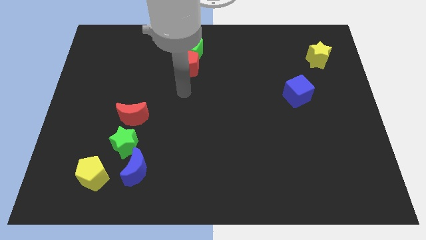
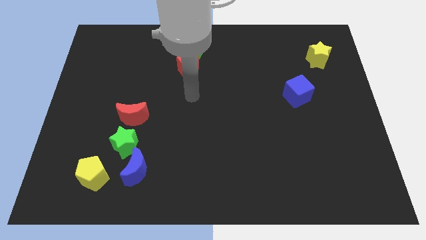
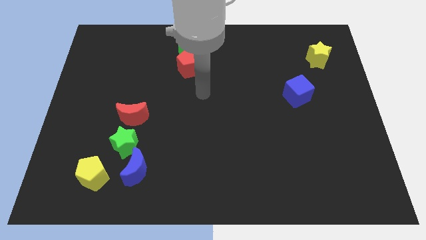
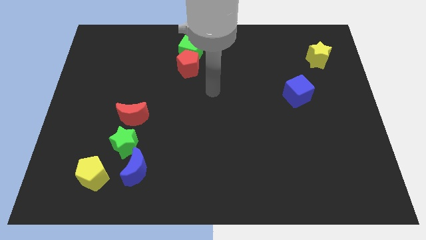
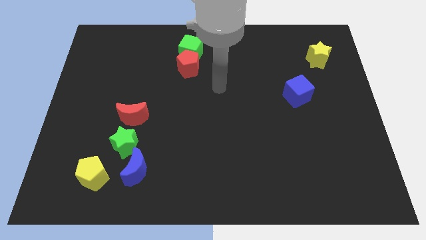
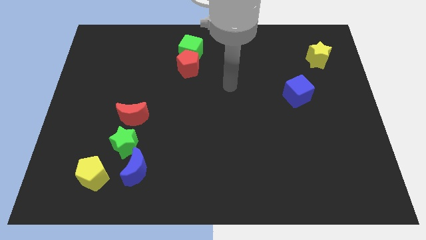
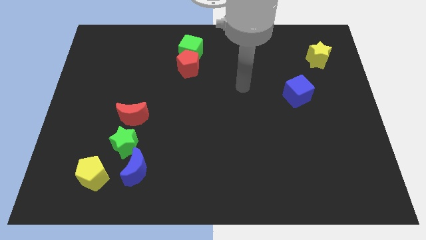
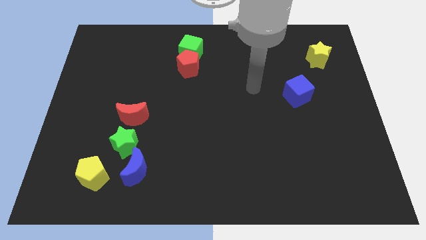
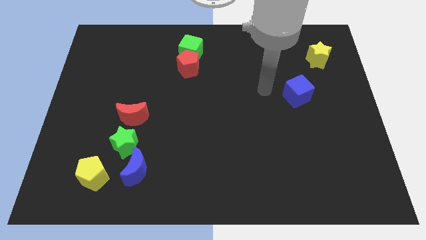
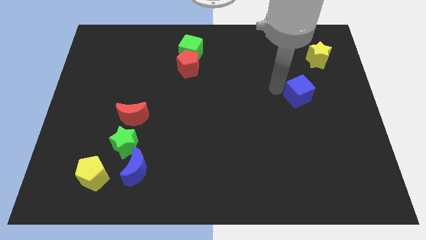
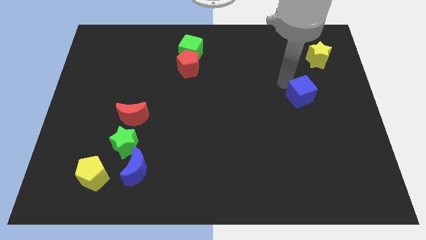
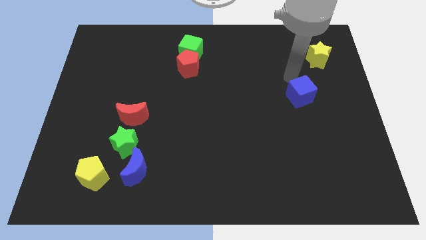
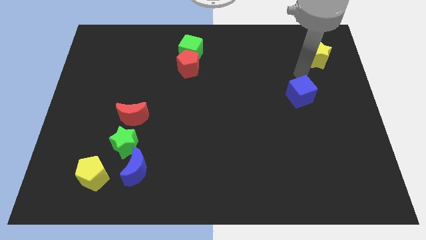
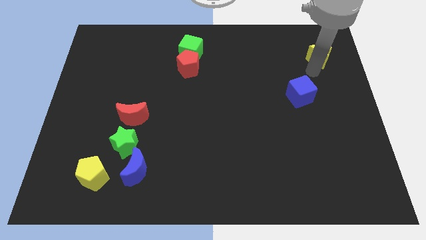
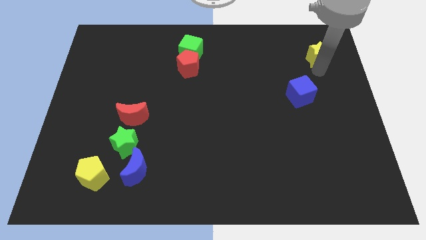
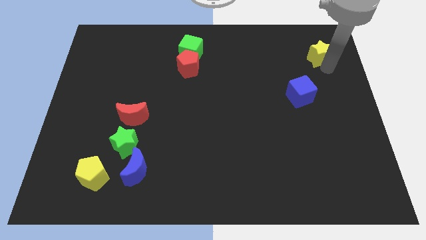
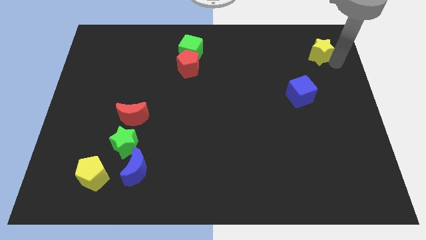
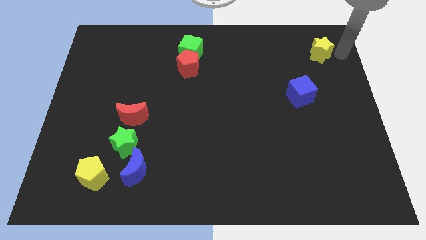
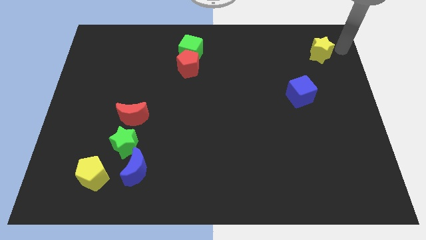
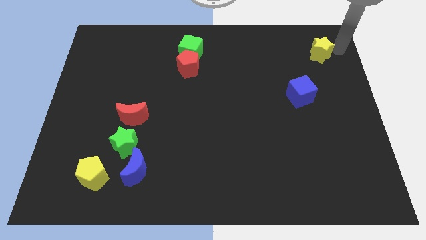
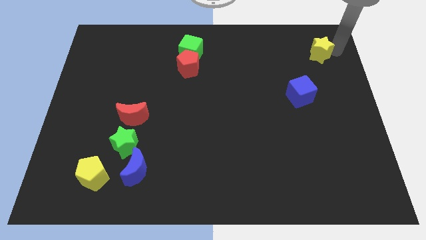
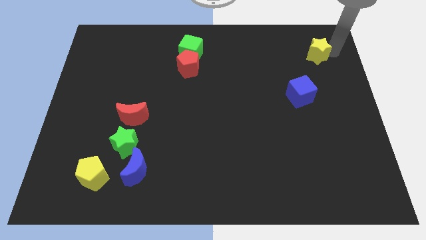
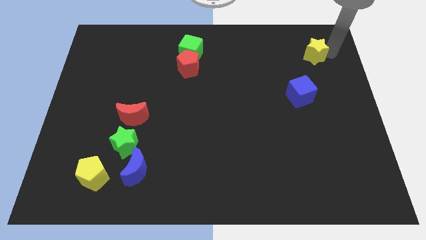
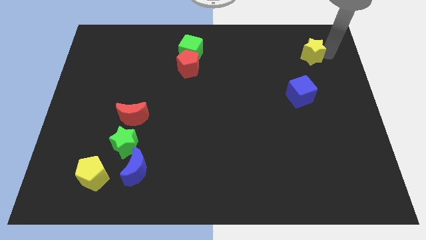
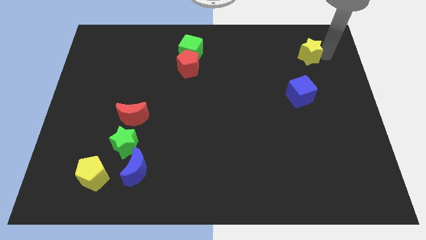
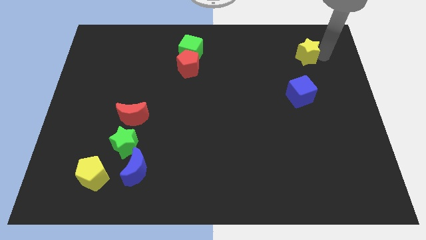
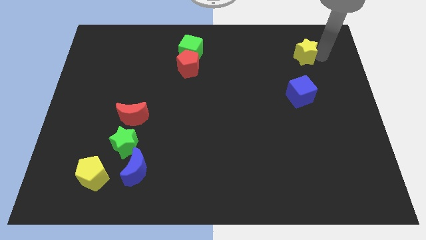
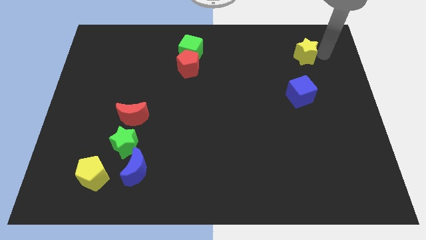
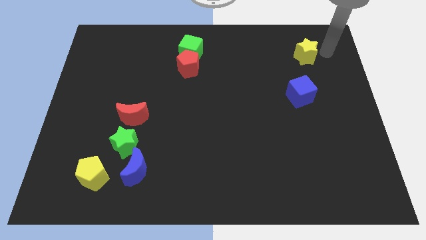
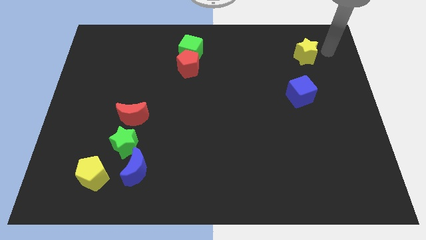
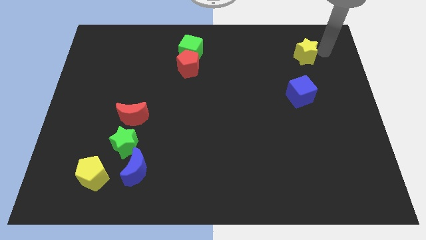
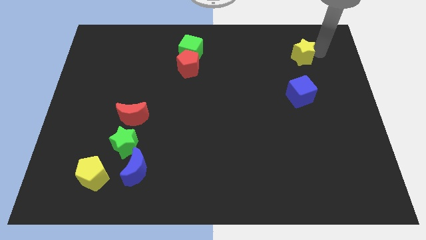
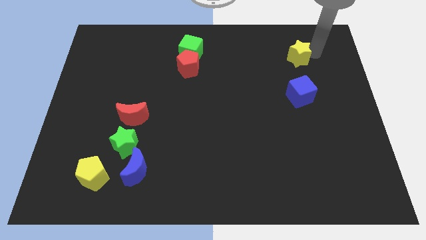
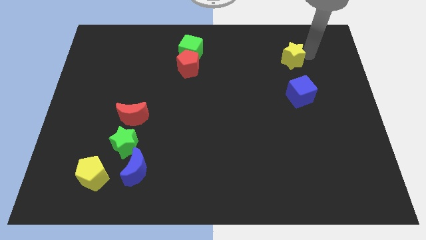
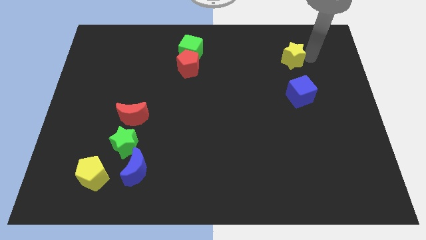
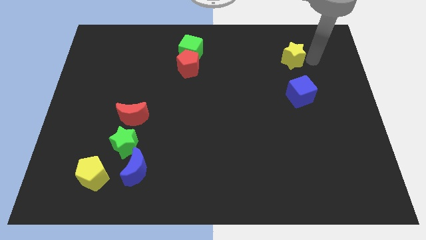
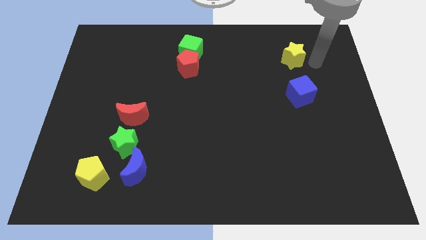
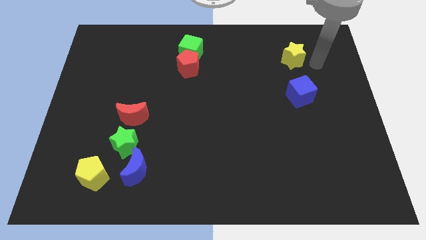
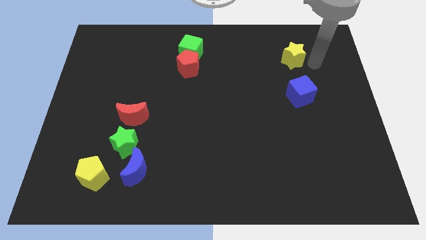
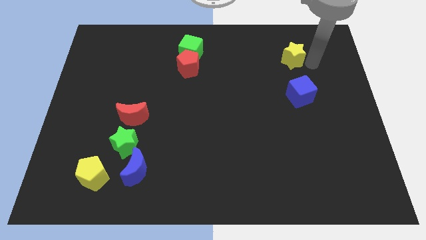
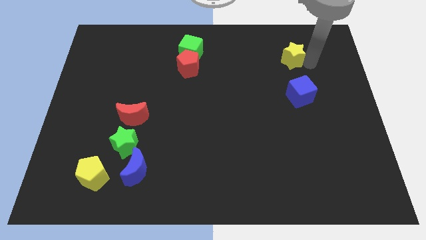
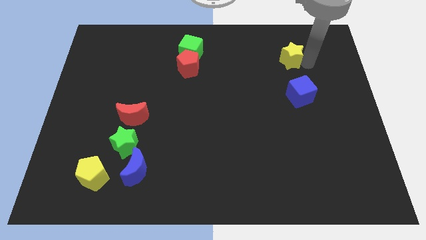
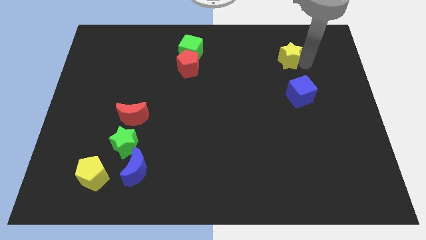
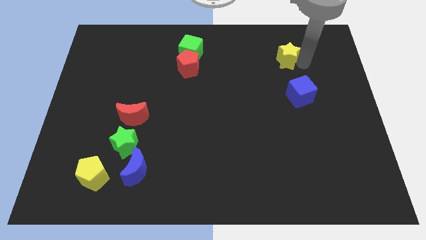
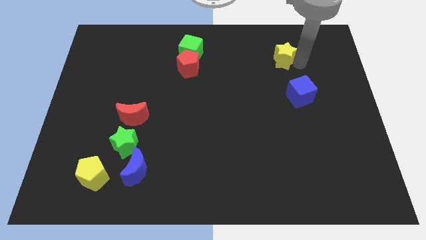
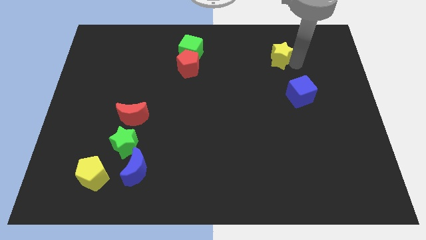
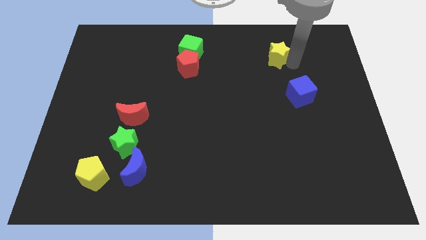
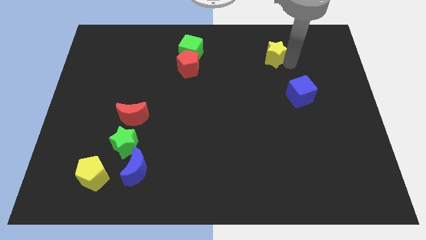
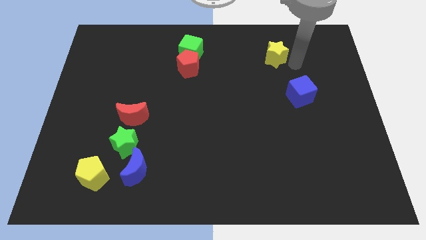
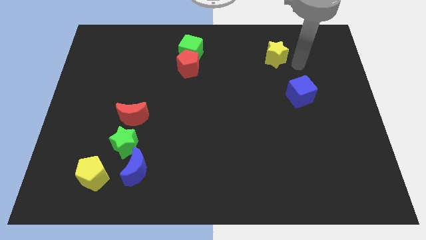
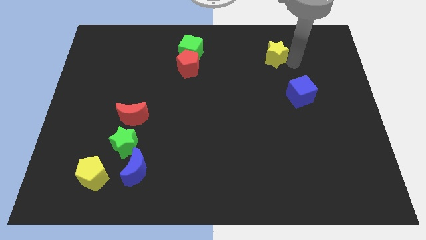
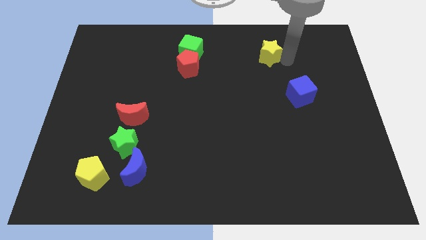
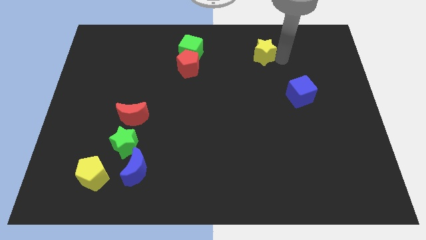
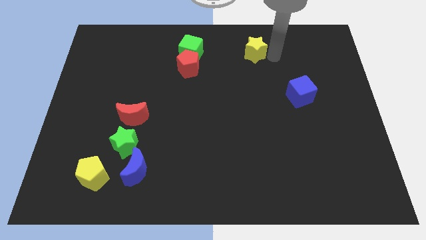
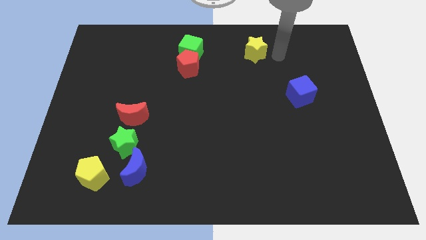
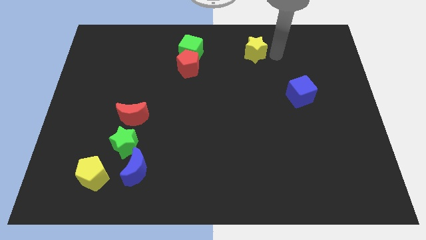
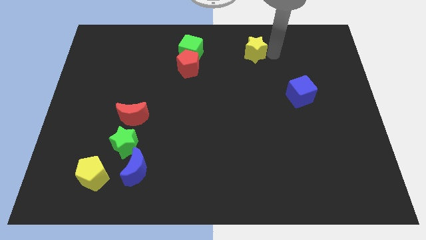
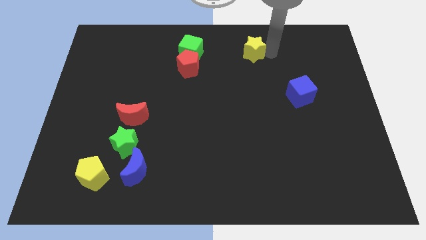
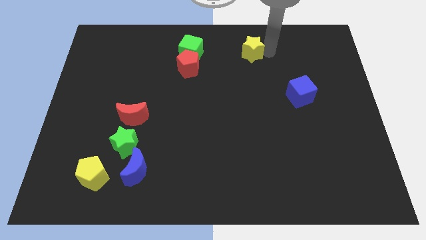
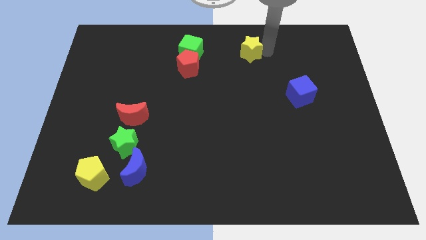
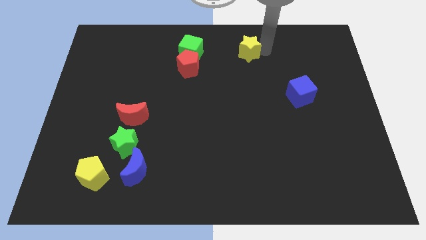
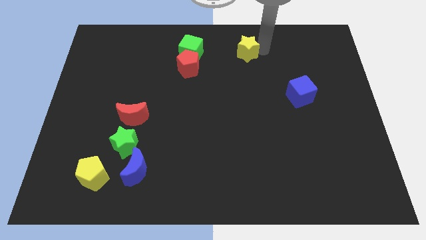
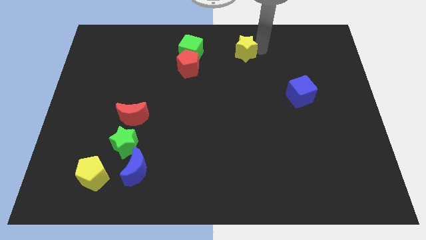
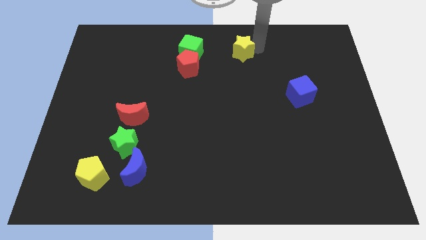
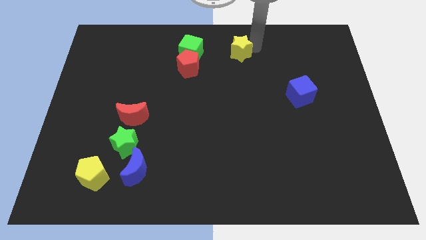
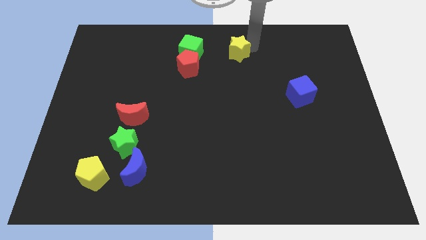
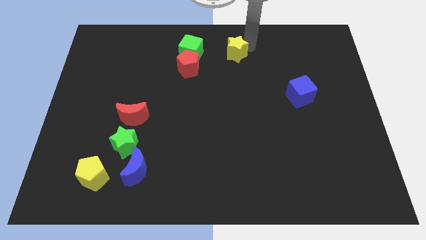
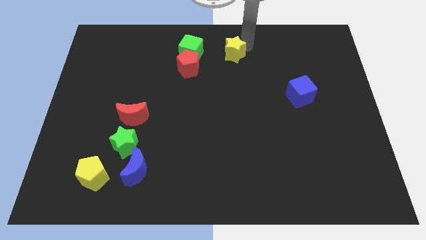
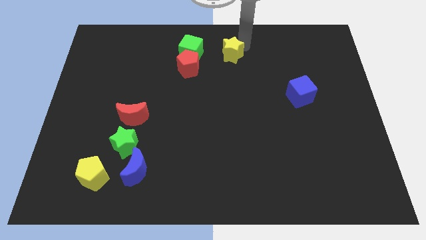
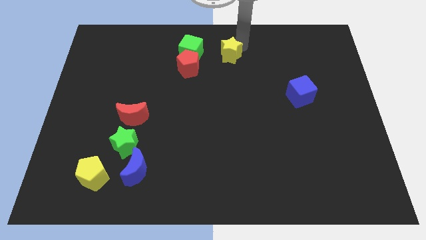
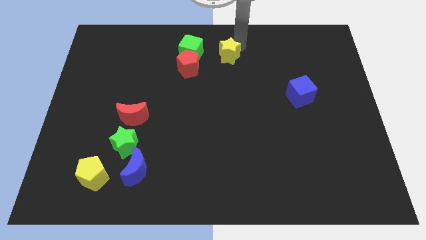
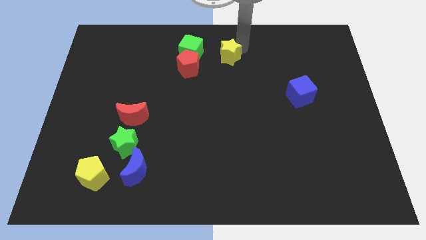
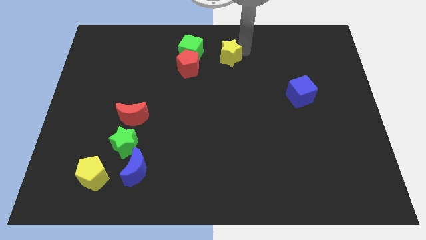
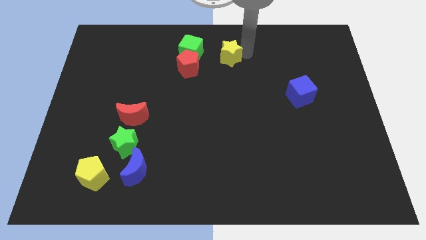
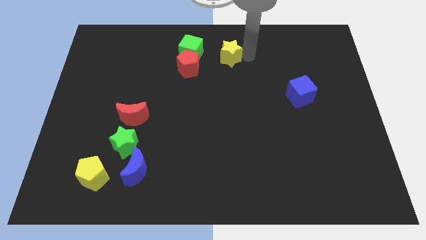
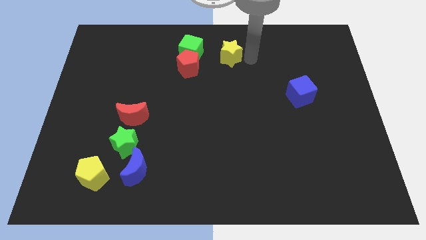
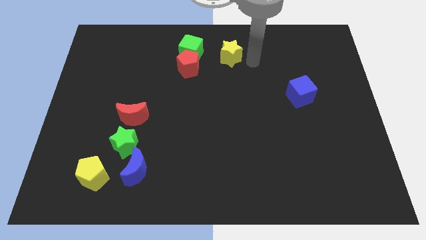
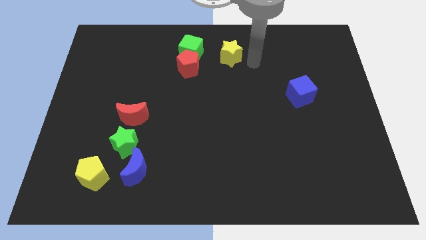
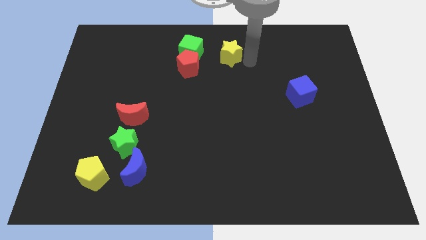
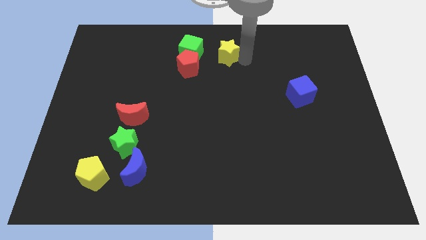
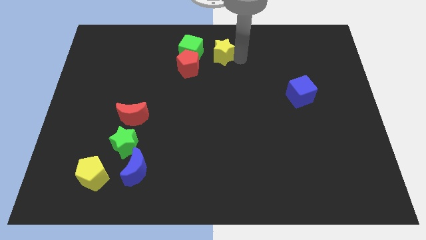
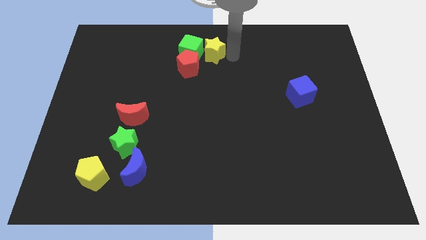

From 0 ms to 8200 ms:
slide the yellow star next to the green cube
